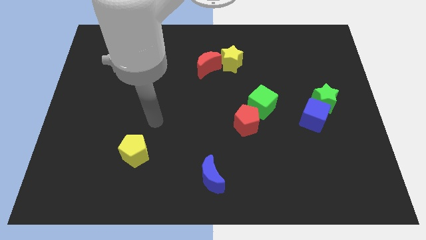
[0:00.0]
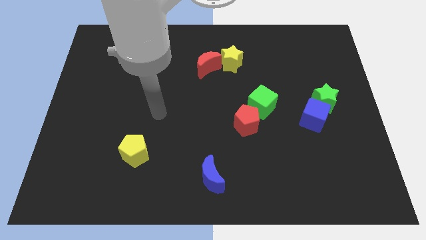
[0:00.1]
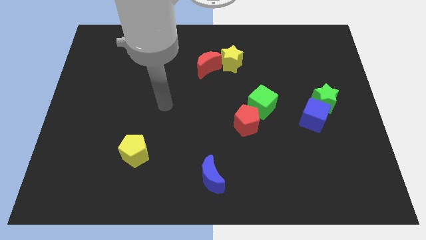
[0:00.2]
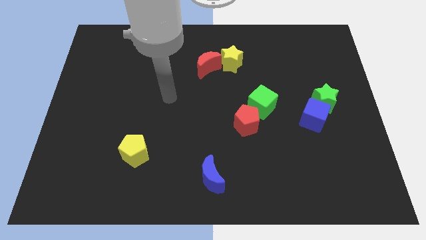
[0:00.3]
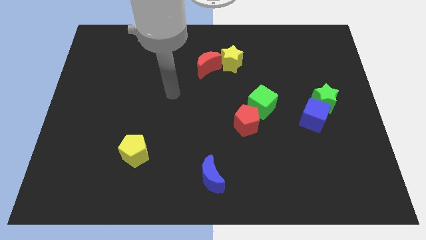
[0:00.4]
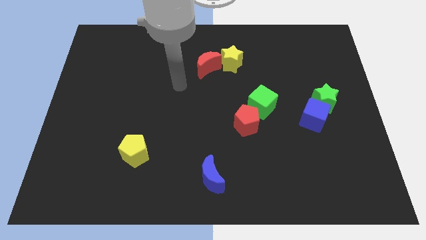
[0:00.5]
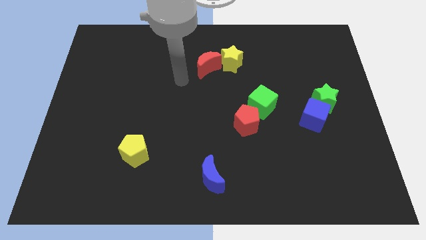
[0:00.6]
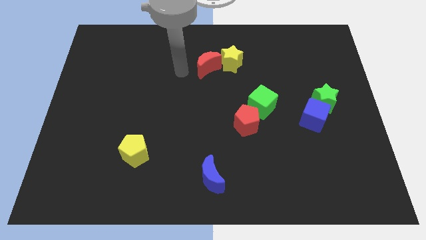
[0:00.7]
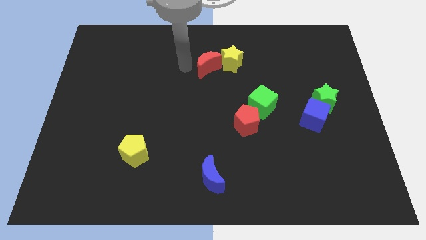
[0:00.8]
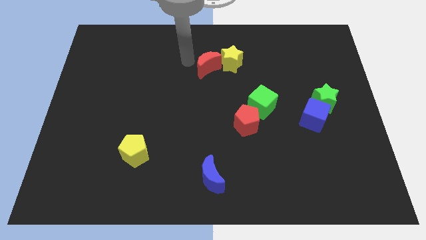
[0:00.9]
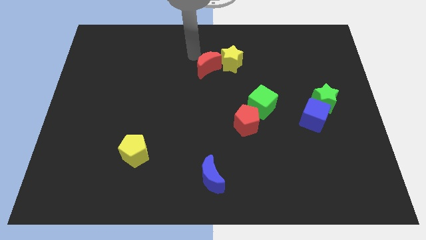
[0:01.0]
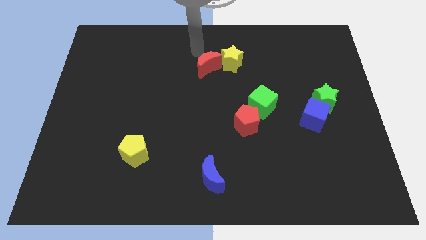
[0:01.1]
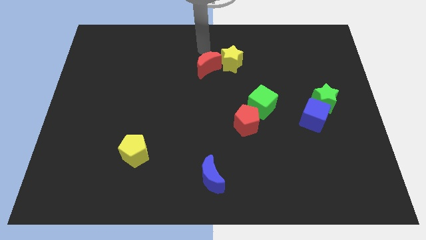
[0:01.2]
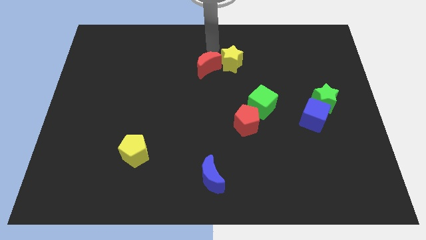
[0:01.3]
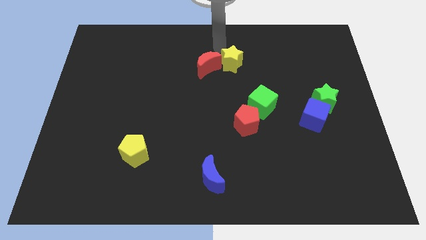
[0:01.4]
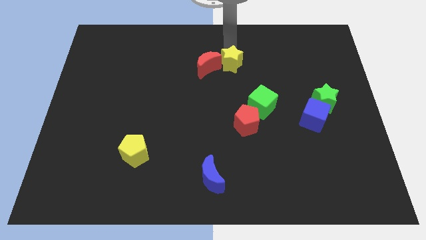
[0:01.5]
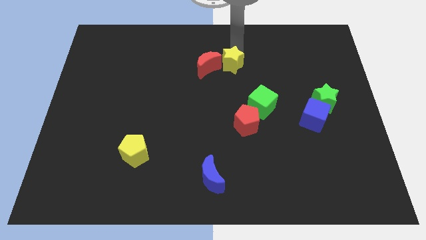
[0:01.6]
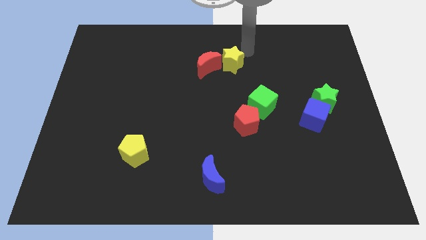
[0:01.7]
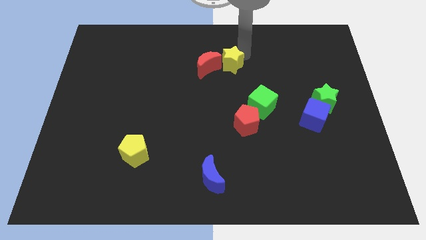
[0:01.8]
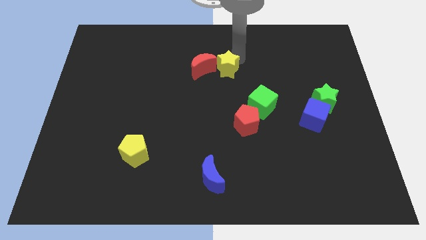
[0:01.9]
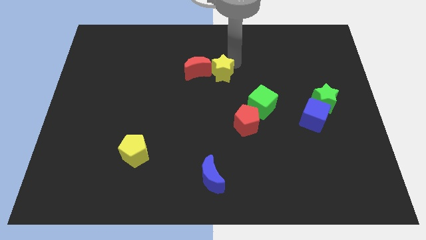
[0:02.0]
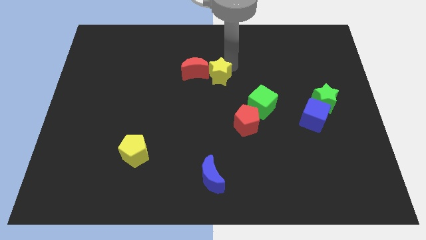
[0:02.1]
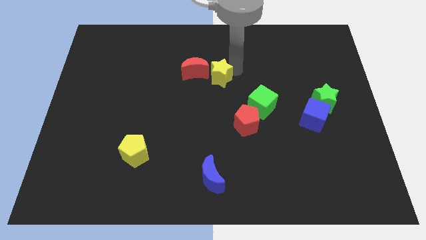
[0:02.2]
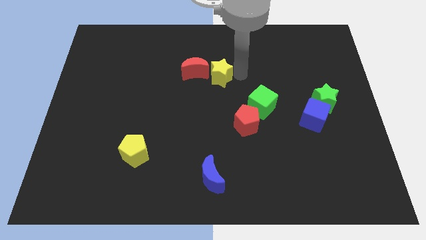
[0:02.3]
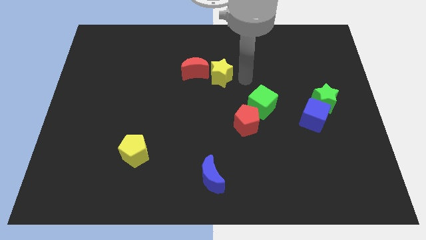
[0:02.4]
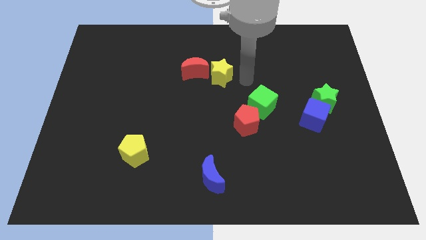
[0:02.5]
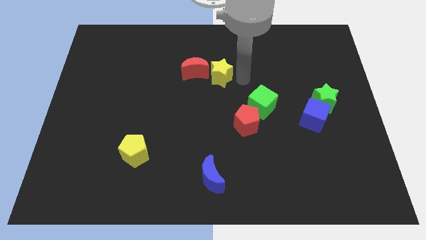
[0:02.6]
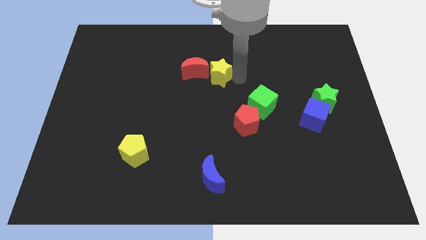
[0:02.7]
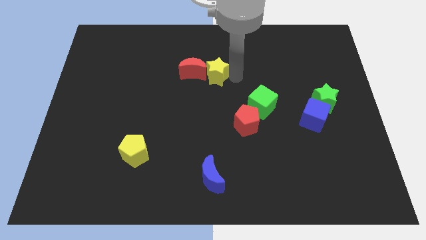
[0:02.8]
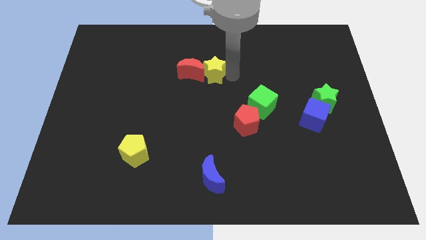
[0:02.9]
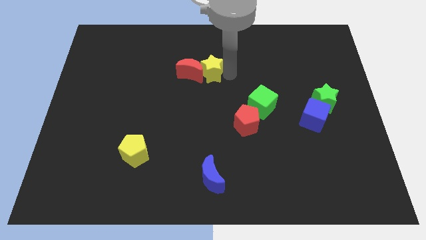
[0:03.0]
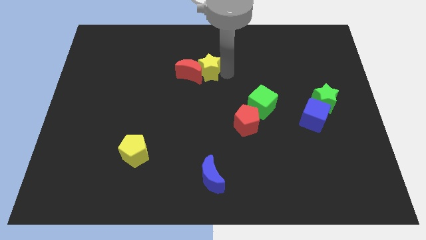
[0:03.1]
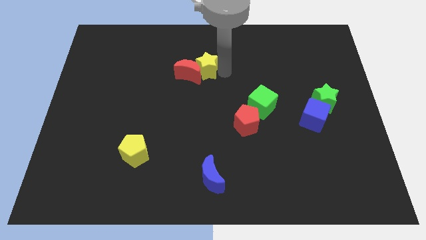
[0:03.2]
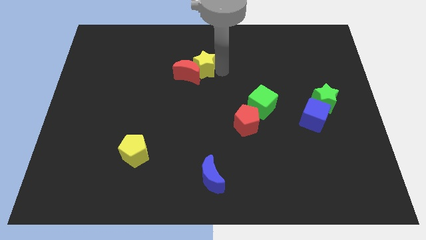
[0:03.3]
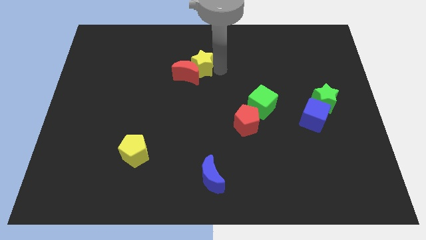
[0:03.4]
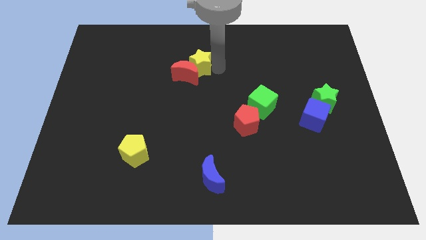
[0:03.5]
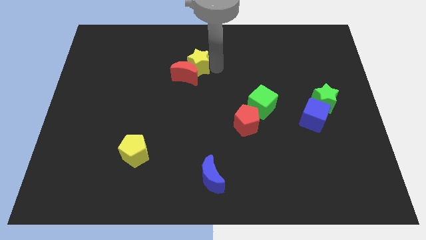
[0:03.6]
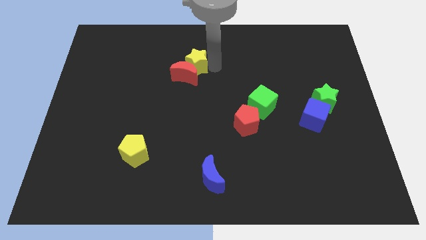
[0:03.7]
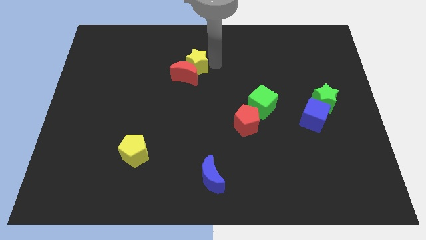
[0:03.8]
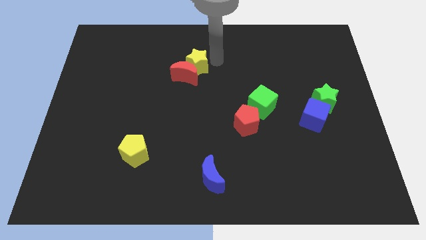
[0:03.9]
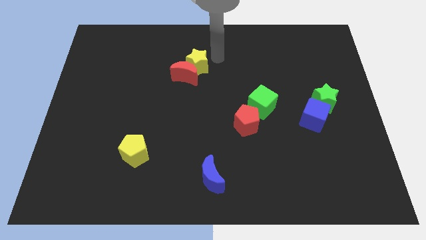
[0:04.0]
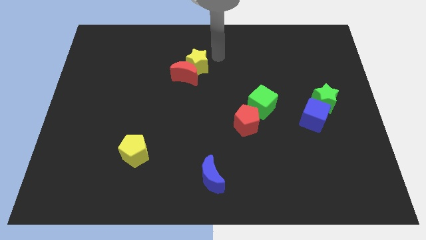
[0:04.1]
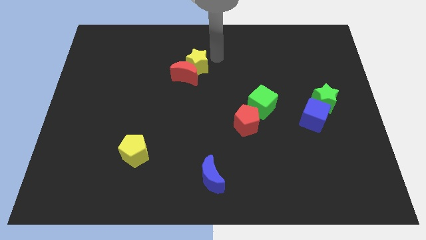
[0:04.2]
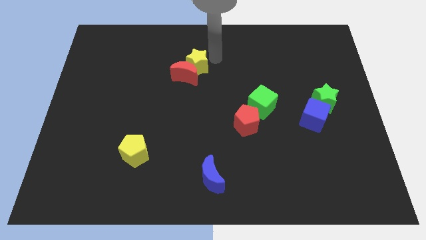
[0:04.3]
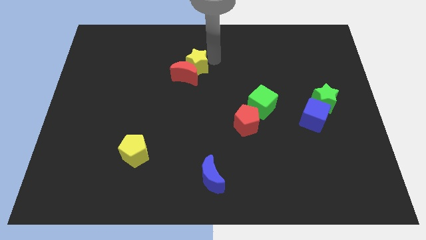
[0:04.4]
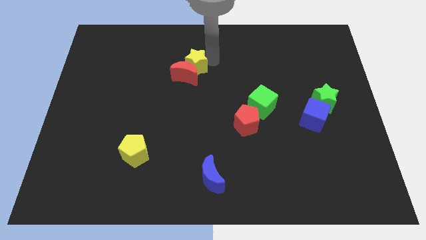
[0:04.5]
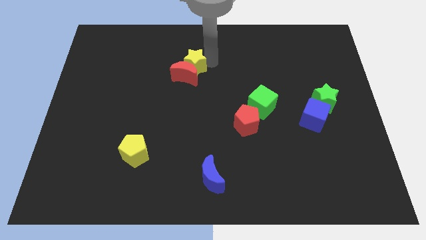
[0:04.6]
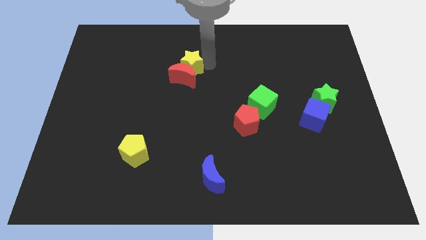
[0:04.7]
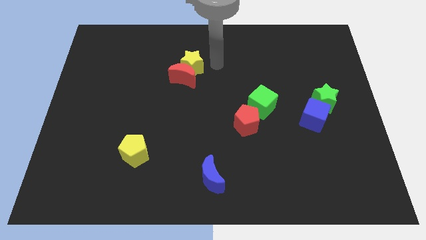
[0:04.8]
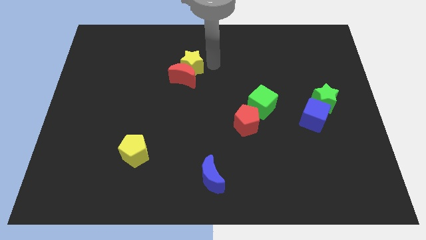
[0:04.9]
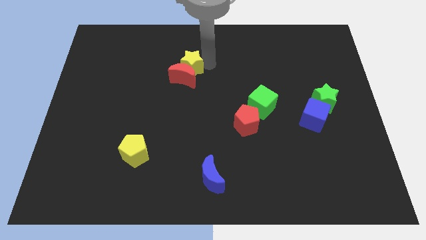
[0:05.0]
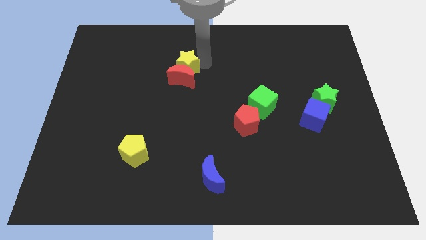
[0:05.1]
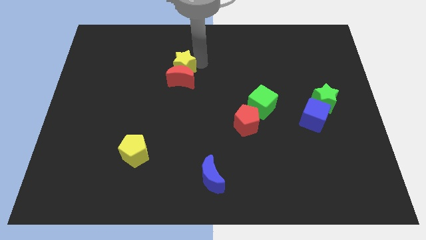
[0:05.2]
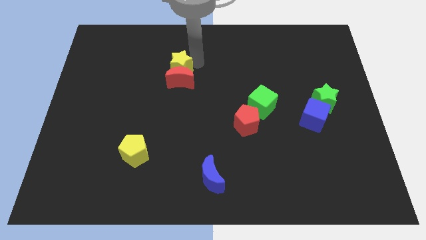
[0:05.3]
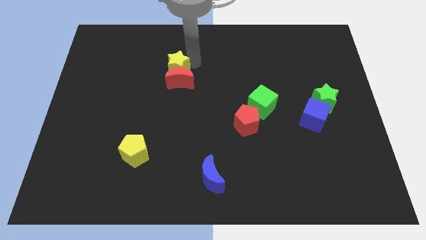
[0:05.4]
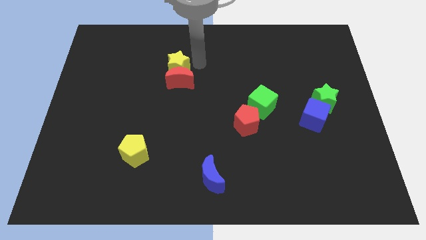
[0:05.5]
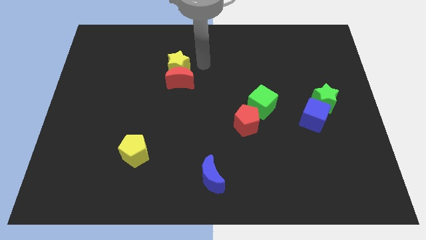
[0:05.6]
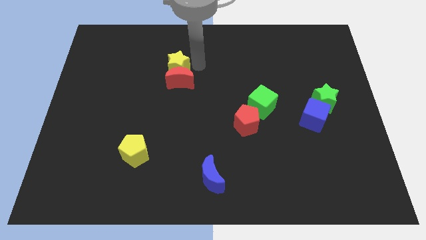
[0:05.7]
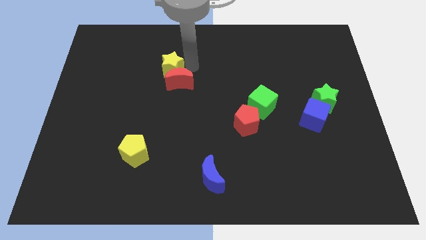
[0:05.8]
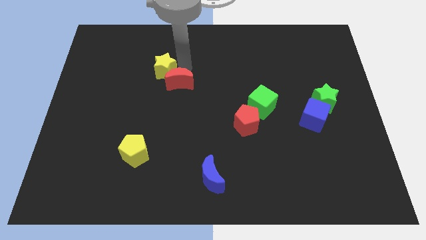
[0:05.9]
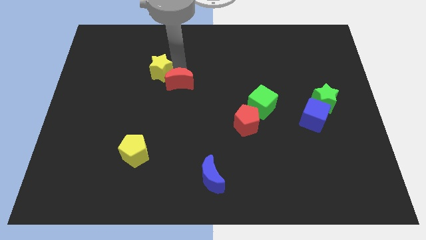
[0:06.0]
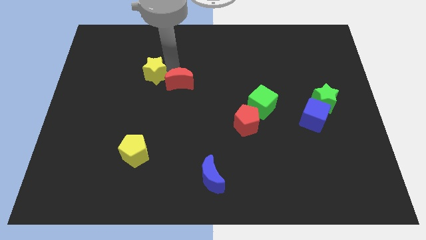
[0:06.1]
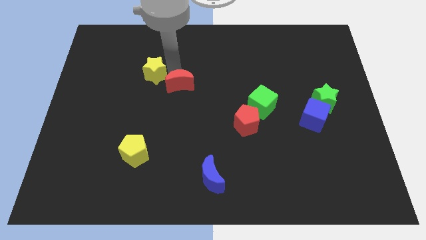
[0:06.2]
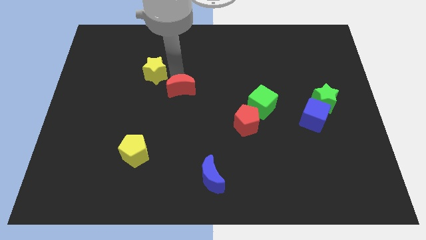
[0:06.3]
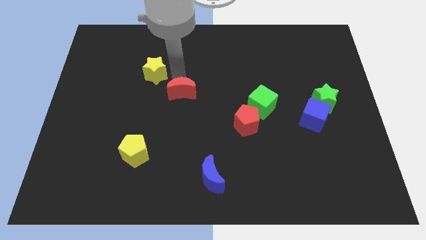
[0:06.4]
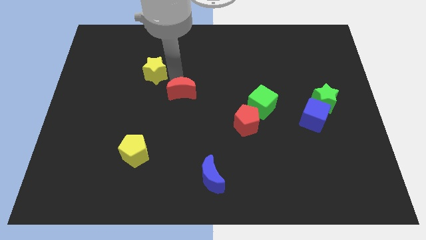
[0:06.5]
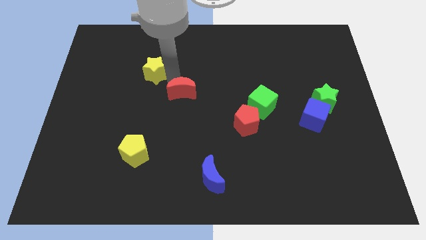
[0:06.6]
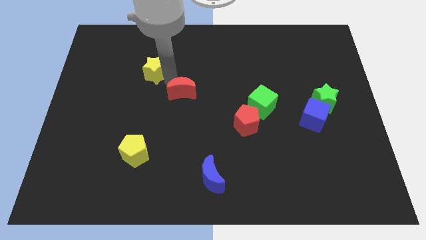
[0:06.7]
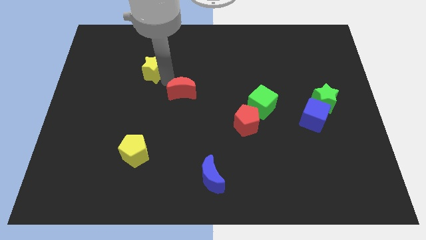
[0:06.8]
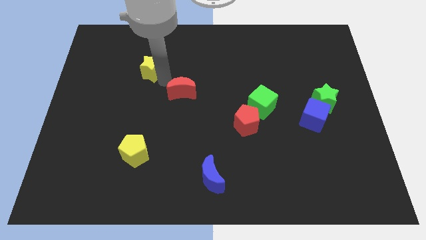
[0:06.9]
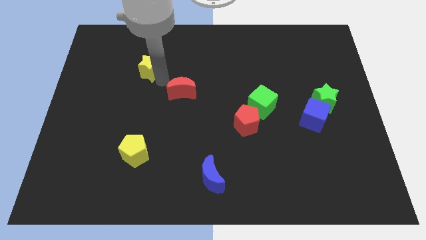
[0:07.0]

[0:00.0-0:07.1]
slide the yellow star left

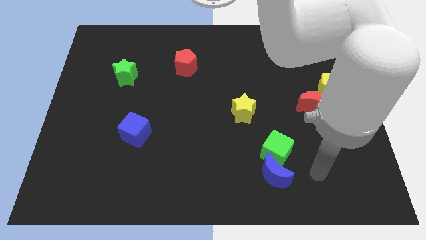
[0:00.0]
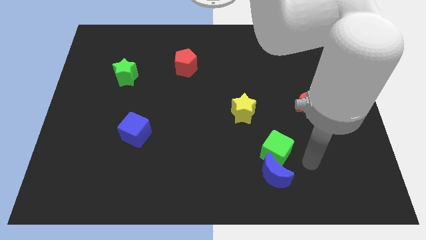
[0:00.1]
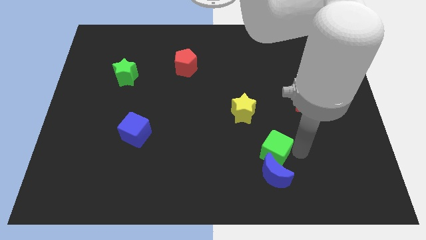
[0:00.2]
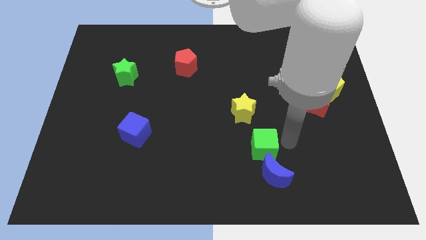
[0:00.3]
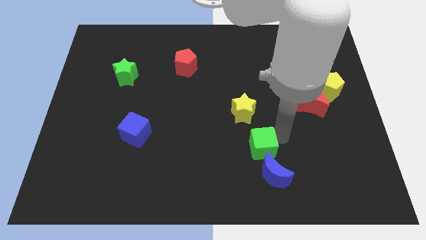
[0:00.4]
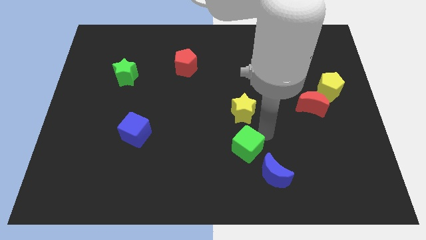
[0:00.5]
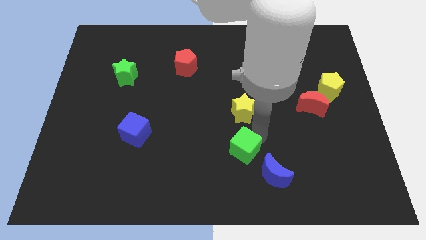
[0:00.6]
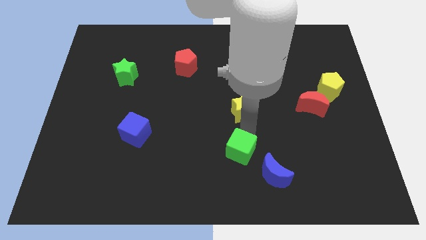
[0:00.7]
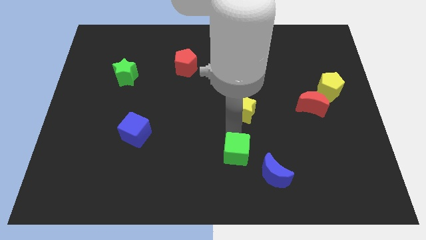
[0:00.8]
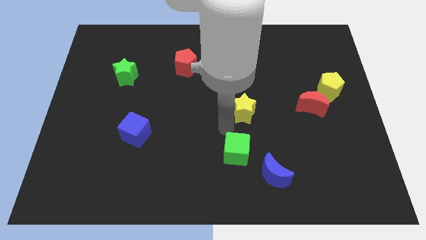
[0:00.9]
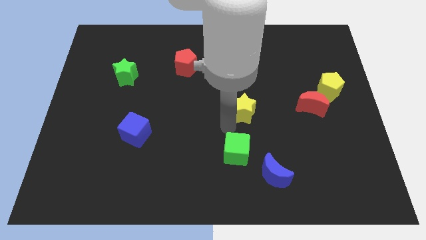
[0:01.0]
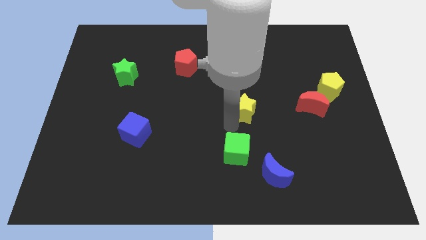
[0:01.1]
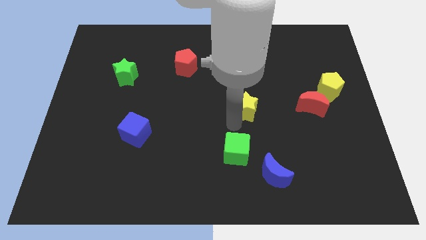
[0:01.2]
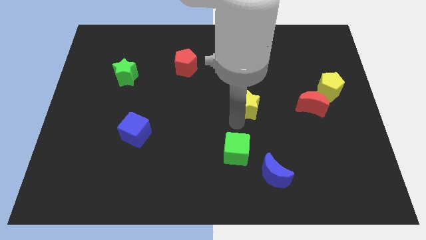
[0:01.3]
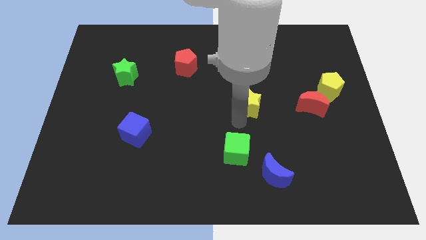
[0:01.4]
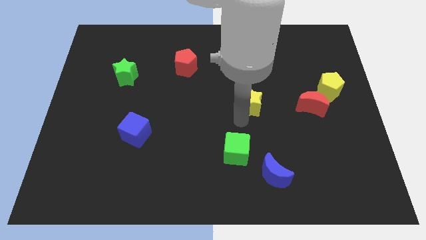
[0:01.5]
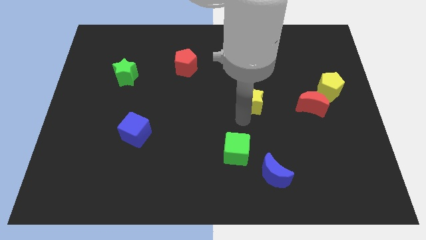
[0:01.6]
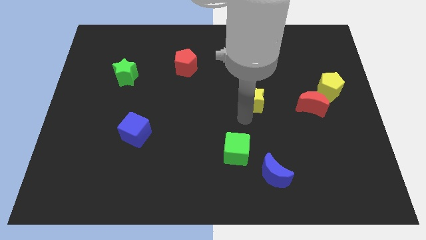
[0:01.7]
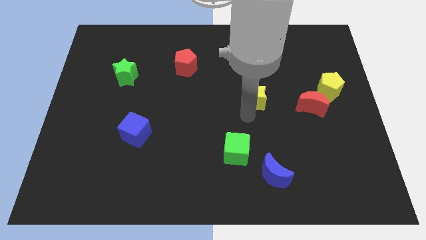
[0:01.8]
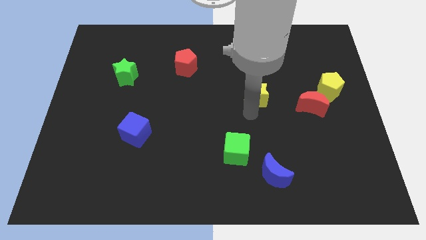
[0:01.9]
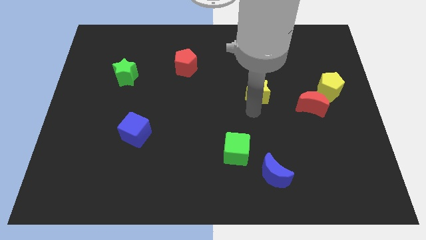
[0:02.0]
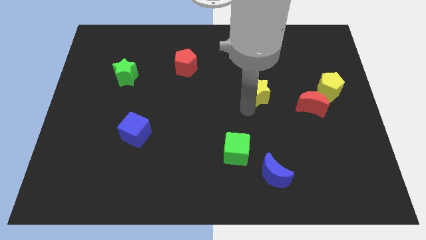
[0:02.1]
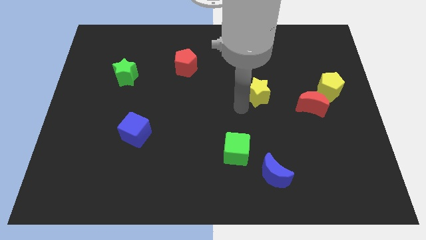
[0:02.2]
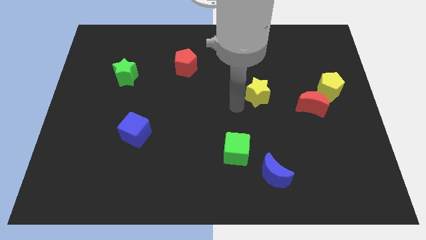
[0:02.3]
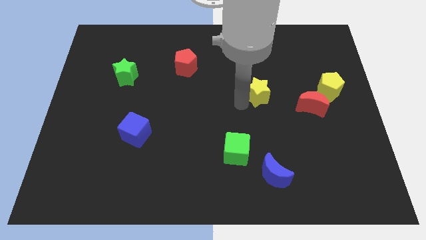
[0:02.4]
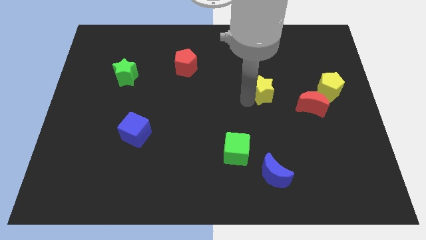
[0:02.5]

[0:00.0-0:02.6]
push the yellow star somewhat diagonally upwards and right
